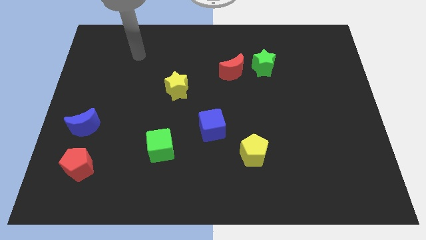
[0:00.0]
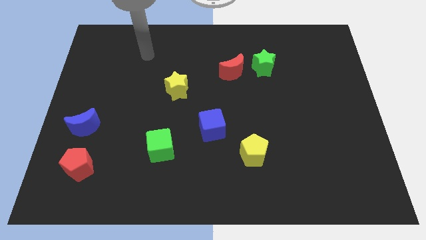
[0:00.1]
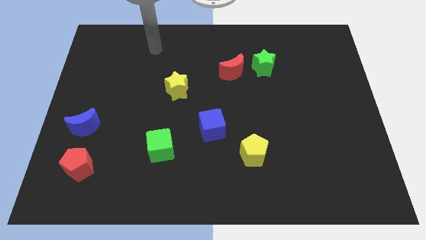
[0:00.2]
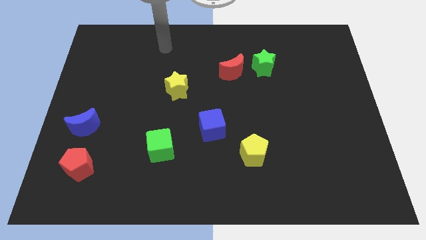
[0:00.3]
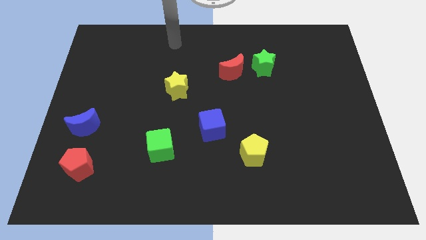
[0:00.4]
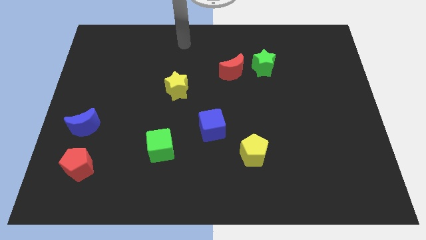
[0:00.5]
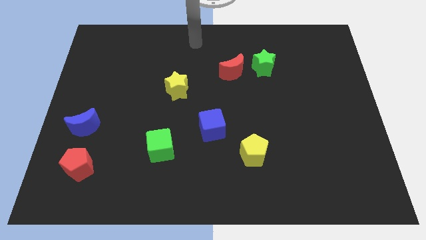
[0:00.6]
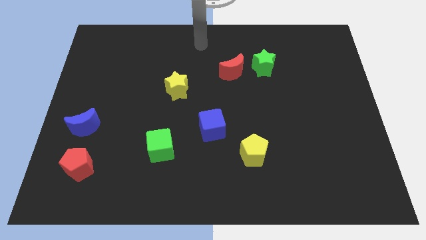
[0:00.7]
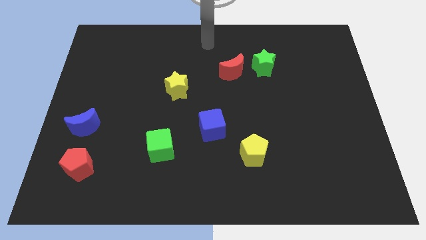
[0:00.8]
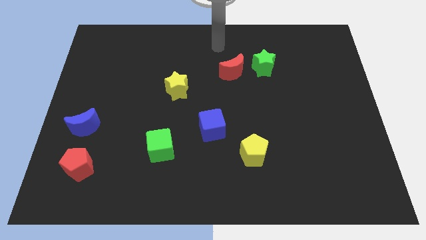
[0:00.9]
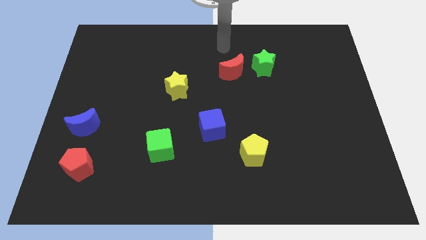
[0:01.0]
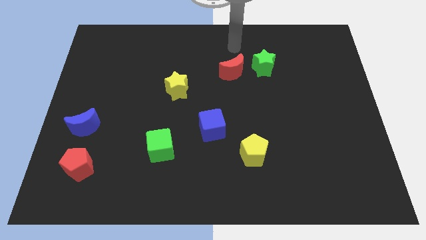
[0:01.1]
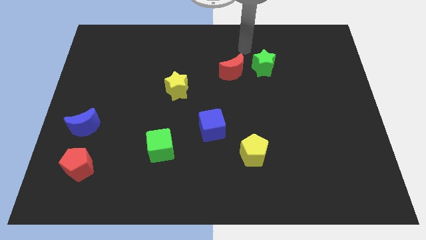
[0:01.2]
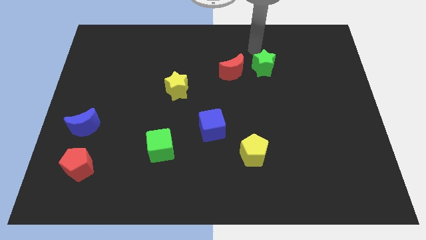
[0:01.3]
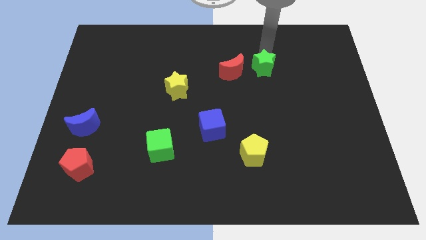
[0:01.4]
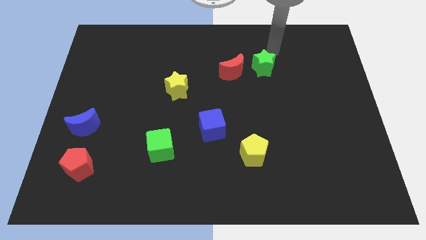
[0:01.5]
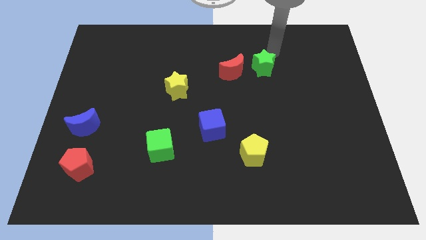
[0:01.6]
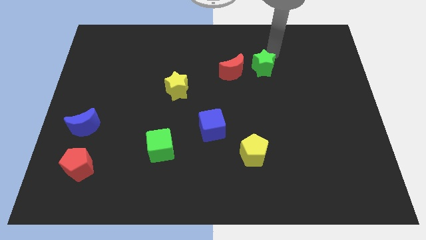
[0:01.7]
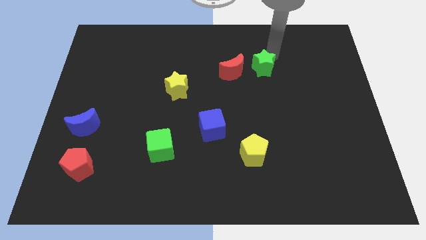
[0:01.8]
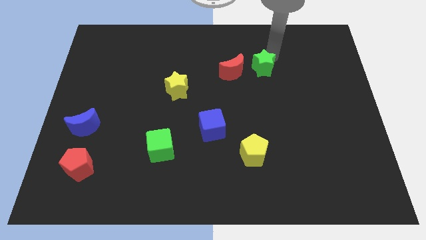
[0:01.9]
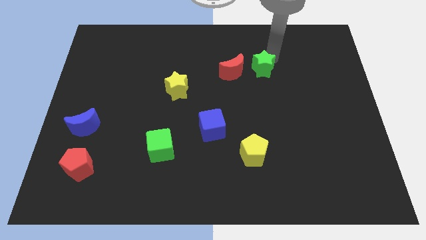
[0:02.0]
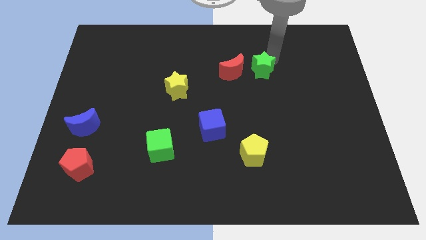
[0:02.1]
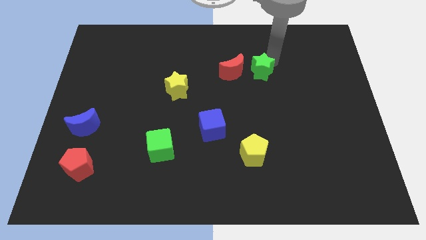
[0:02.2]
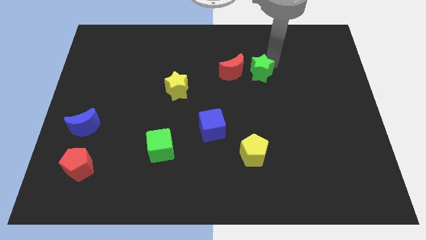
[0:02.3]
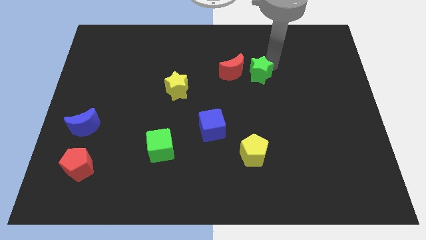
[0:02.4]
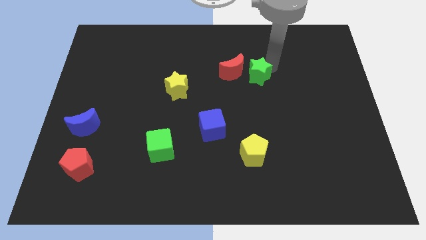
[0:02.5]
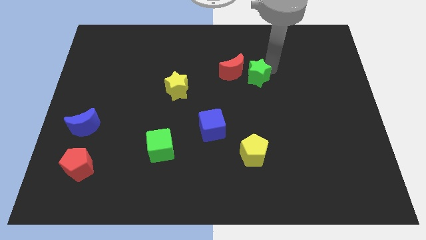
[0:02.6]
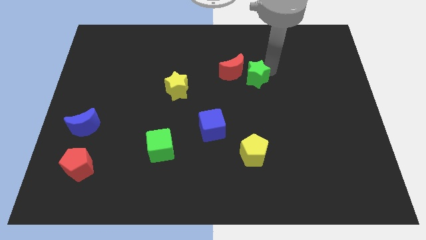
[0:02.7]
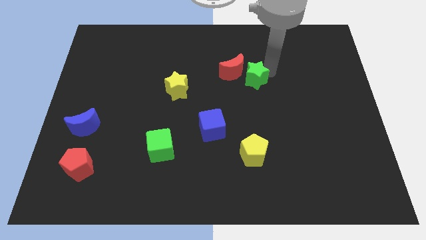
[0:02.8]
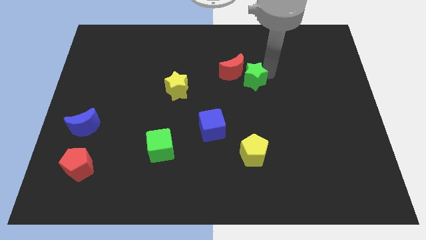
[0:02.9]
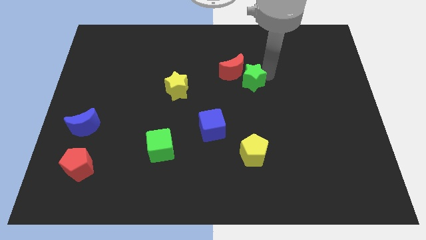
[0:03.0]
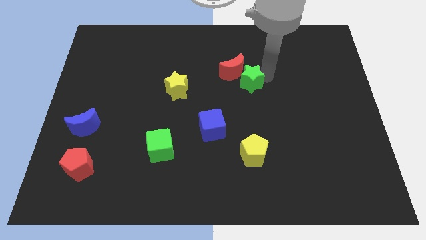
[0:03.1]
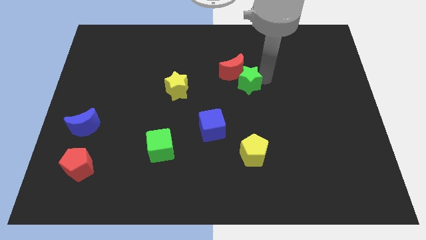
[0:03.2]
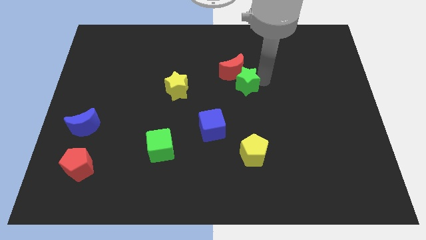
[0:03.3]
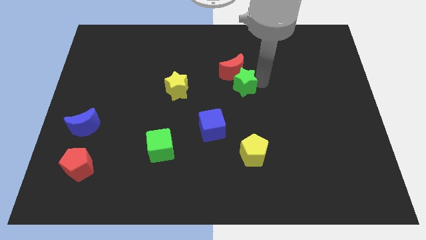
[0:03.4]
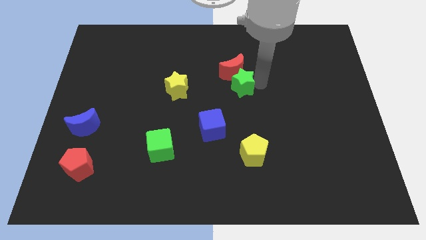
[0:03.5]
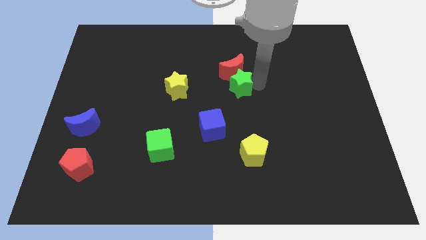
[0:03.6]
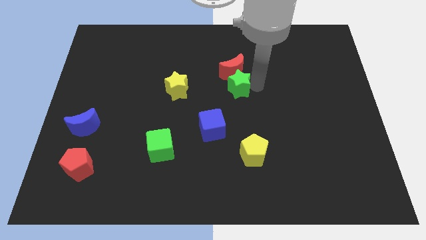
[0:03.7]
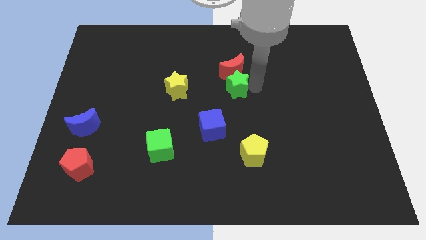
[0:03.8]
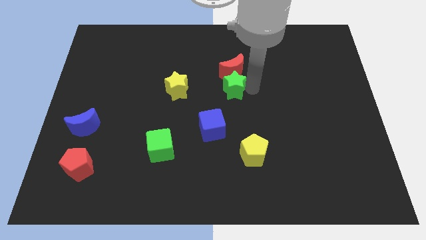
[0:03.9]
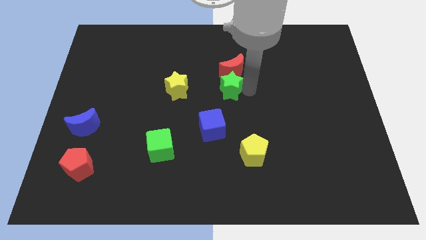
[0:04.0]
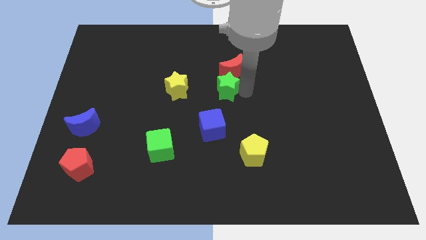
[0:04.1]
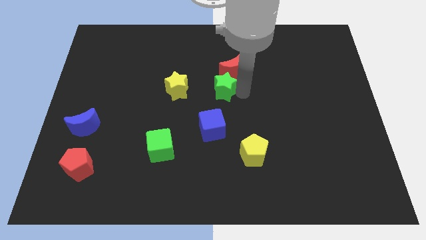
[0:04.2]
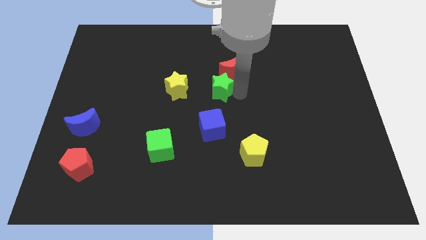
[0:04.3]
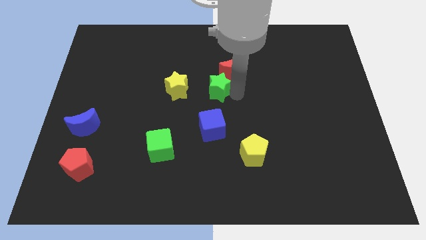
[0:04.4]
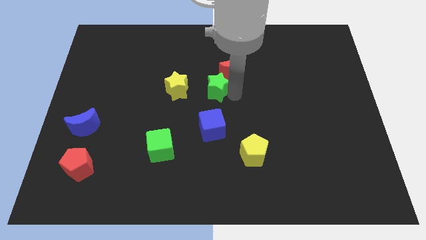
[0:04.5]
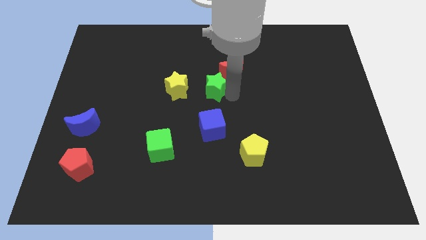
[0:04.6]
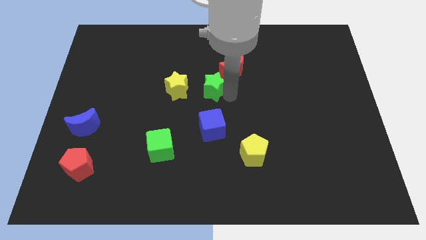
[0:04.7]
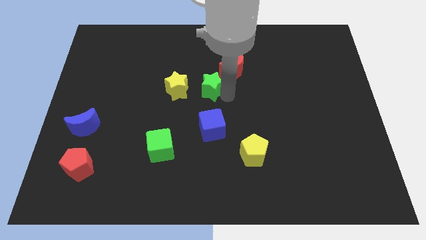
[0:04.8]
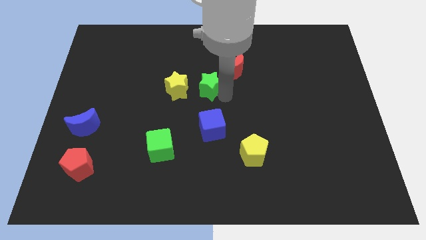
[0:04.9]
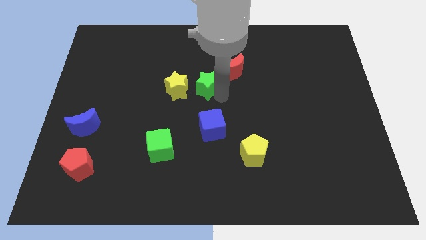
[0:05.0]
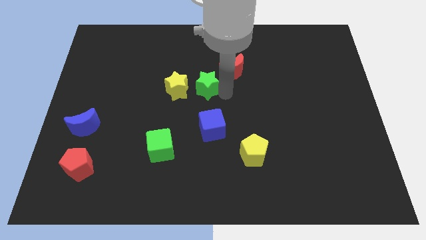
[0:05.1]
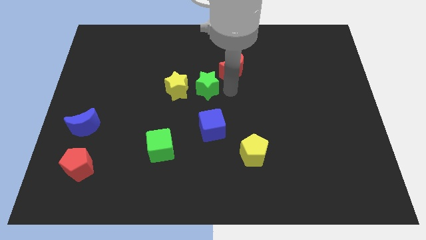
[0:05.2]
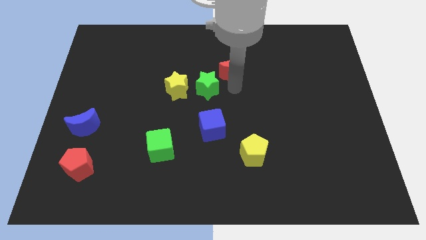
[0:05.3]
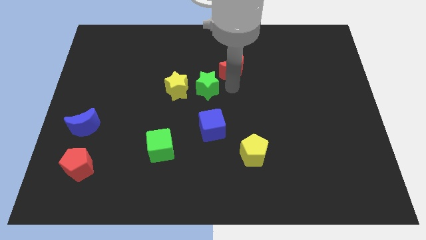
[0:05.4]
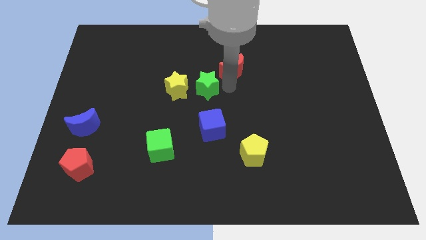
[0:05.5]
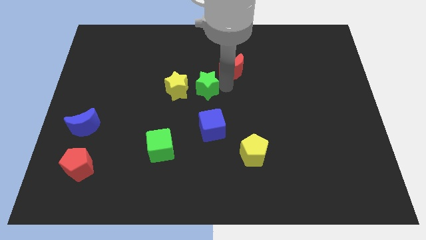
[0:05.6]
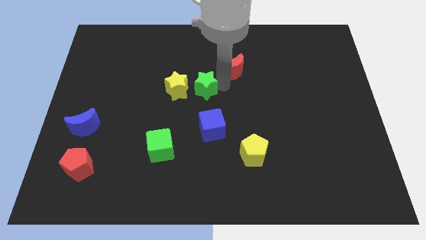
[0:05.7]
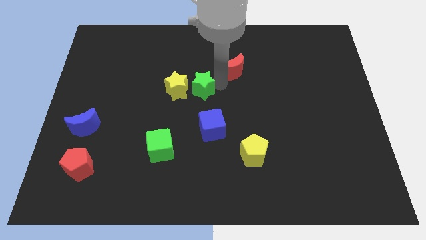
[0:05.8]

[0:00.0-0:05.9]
put the green star close to the yellow star

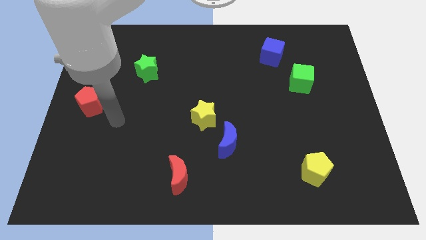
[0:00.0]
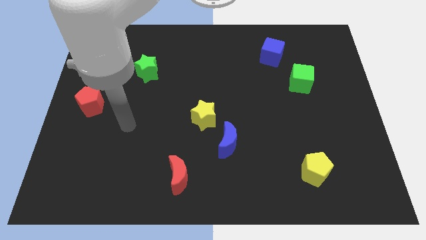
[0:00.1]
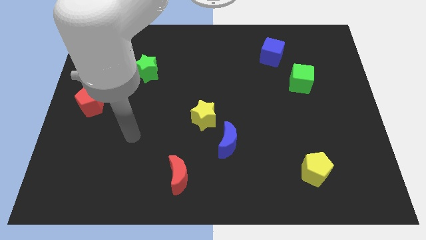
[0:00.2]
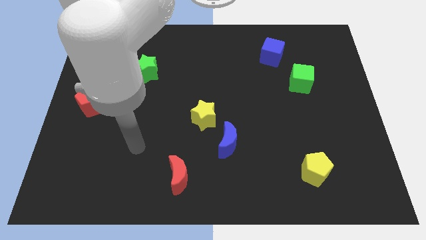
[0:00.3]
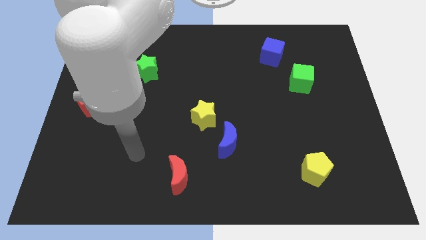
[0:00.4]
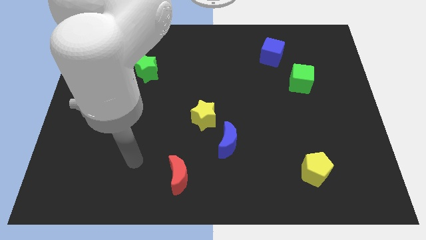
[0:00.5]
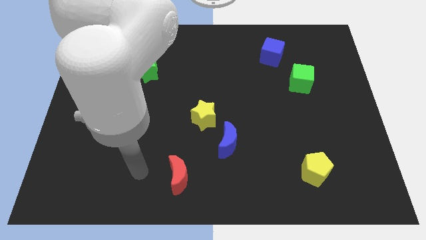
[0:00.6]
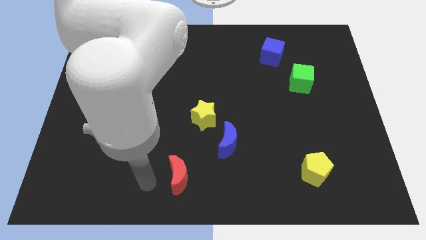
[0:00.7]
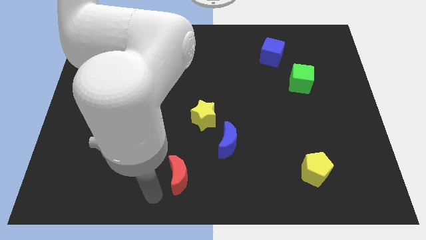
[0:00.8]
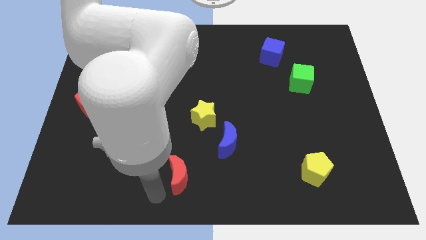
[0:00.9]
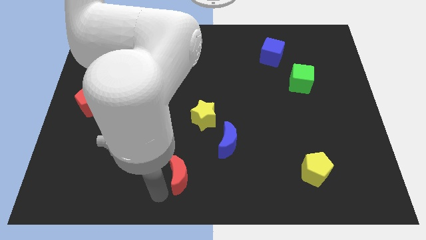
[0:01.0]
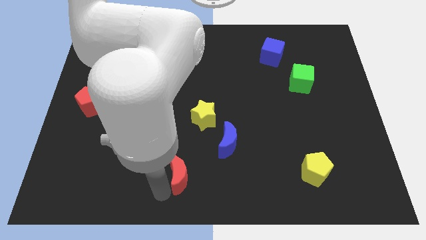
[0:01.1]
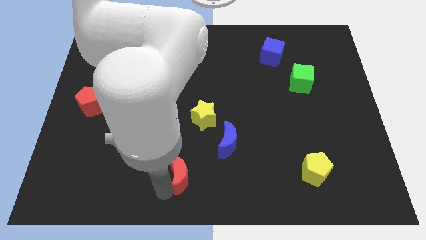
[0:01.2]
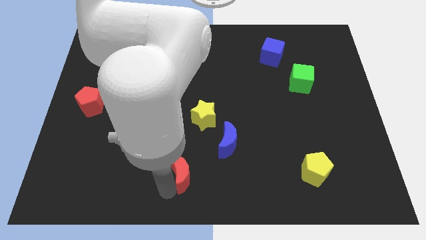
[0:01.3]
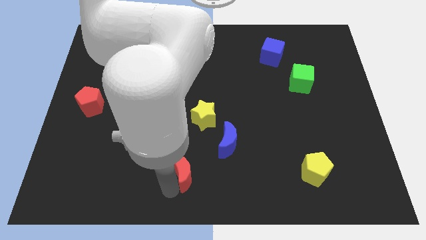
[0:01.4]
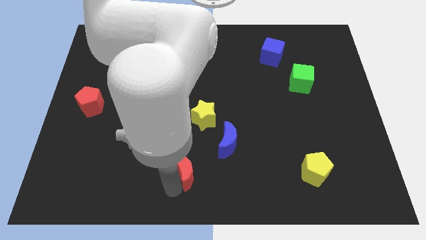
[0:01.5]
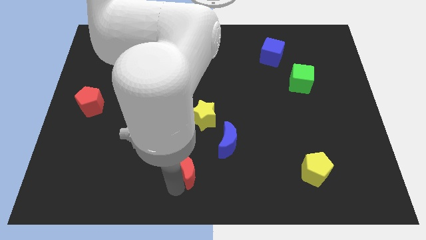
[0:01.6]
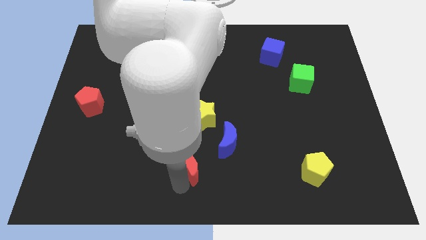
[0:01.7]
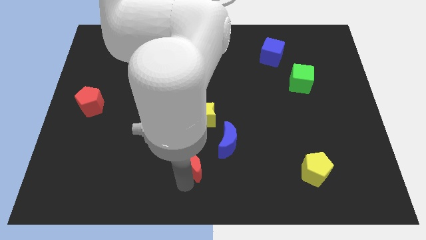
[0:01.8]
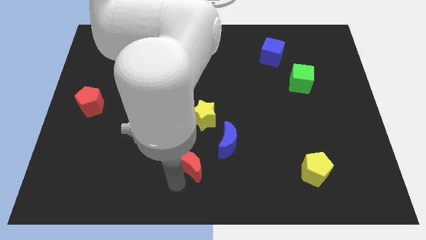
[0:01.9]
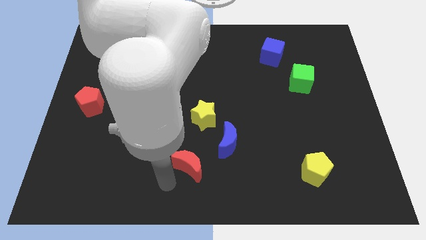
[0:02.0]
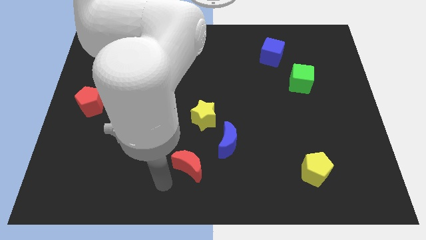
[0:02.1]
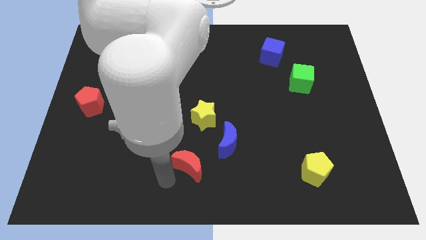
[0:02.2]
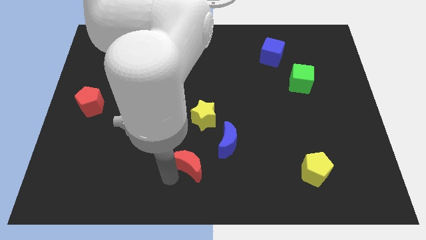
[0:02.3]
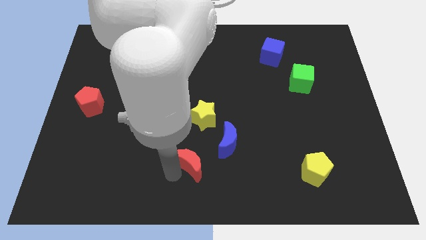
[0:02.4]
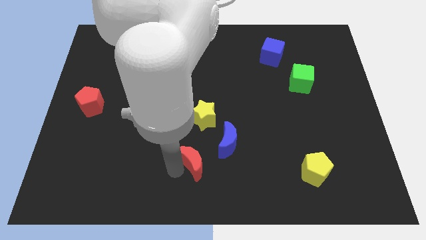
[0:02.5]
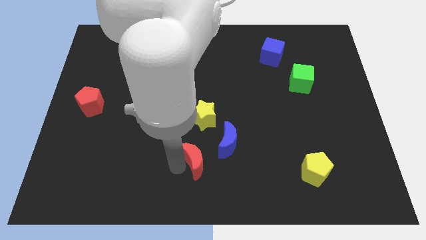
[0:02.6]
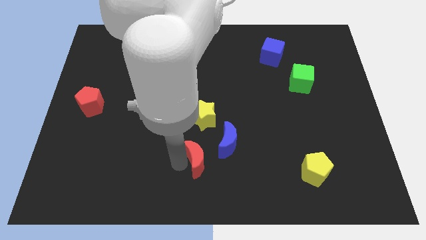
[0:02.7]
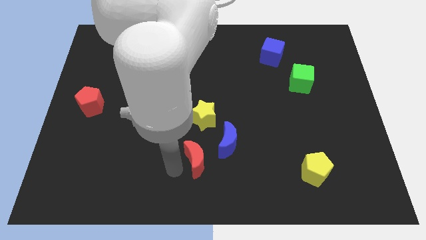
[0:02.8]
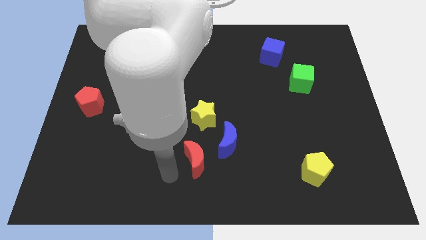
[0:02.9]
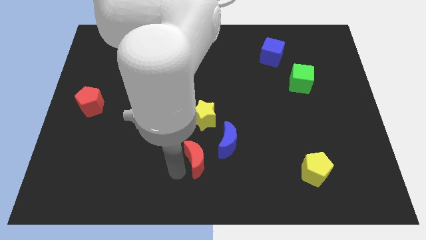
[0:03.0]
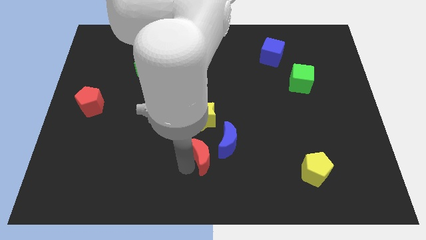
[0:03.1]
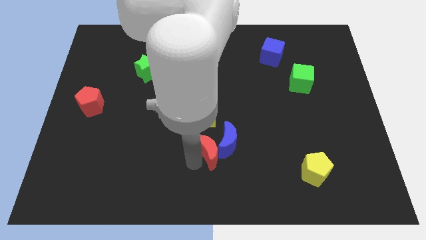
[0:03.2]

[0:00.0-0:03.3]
move the red moon close to the blue moon
